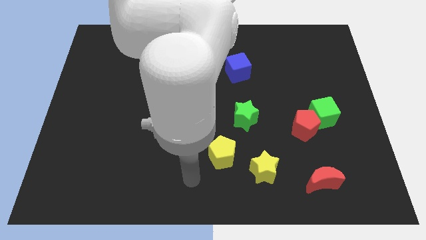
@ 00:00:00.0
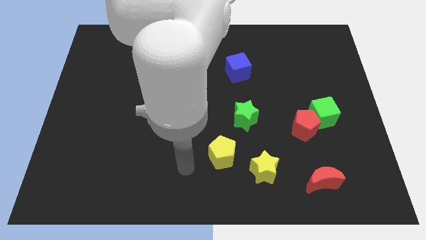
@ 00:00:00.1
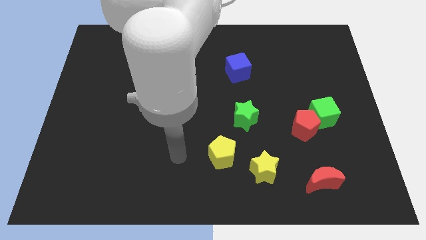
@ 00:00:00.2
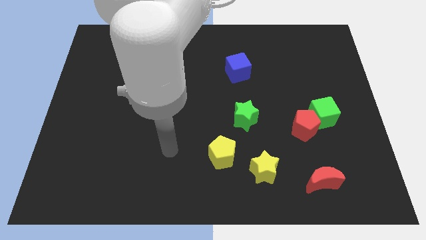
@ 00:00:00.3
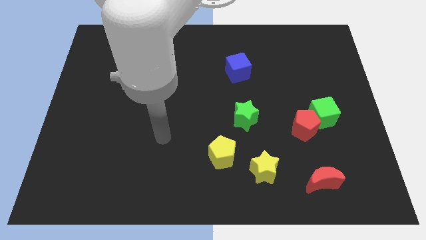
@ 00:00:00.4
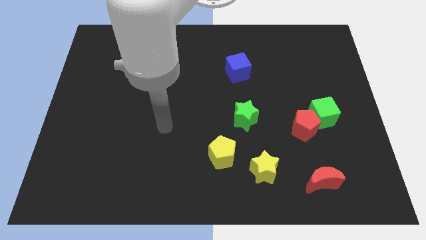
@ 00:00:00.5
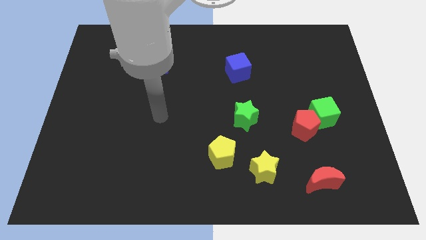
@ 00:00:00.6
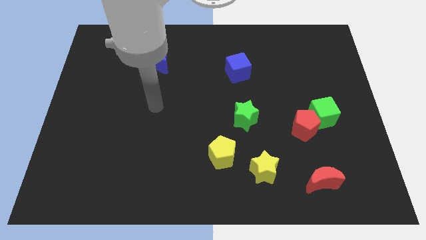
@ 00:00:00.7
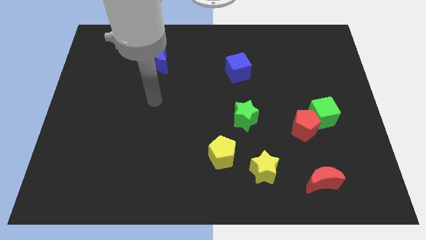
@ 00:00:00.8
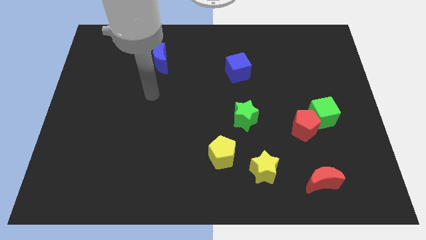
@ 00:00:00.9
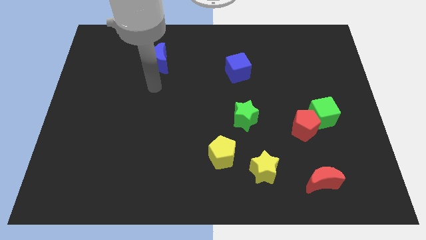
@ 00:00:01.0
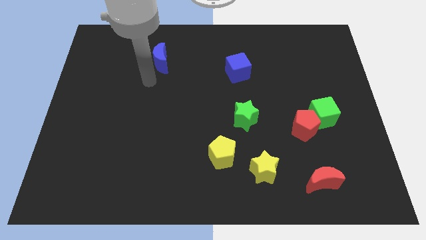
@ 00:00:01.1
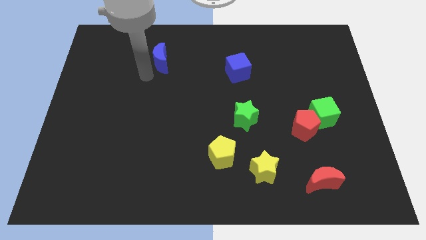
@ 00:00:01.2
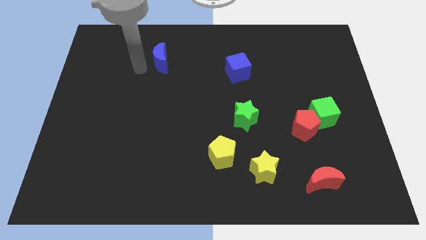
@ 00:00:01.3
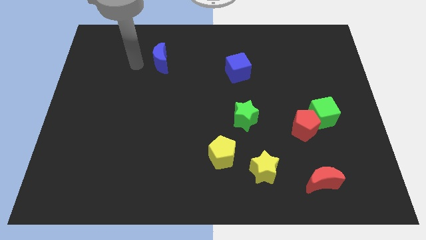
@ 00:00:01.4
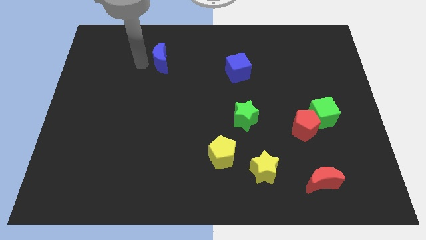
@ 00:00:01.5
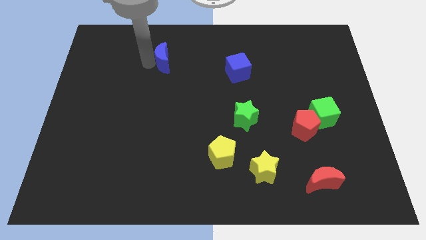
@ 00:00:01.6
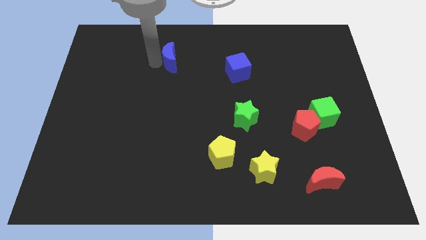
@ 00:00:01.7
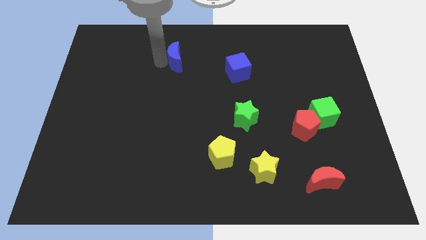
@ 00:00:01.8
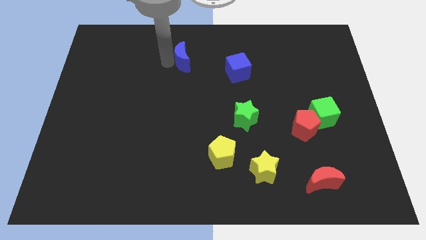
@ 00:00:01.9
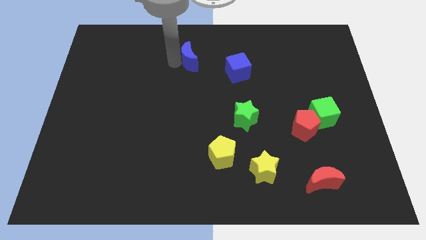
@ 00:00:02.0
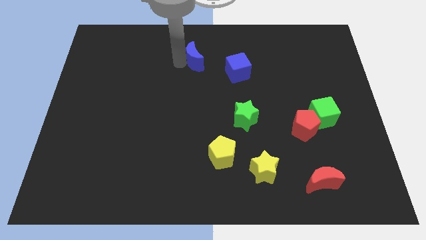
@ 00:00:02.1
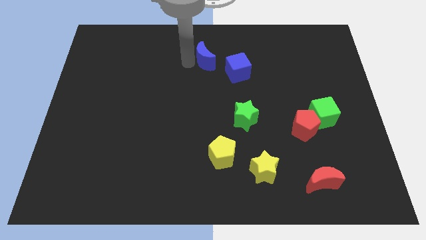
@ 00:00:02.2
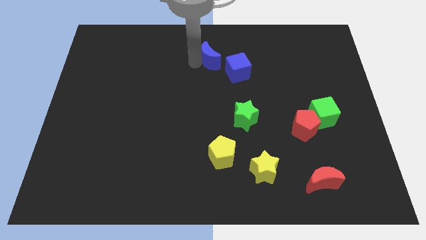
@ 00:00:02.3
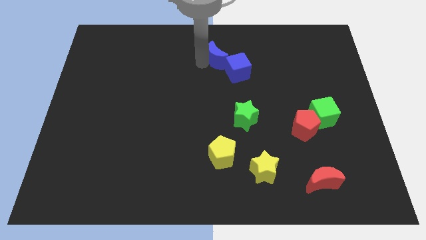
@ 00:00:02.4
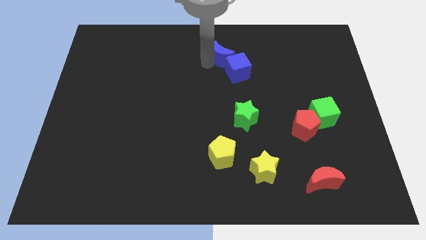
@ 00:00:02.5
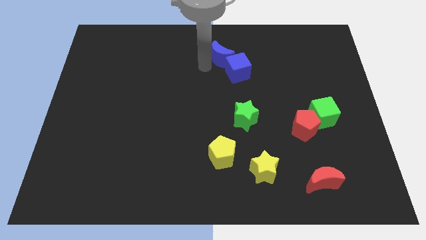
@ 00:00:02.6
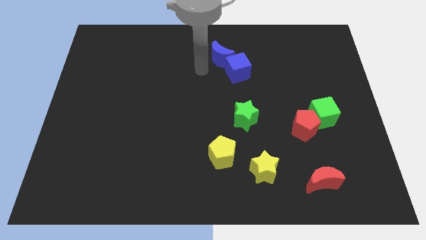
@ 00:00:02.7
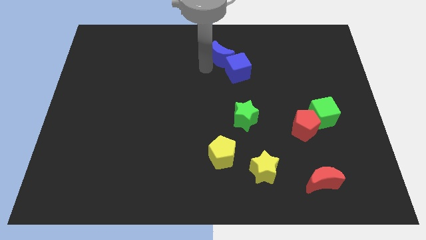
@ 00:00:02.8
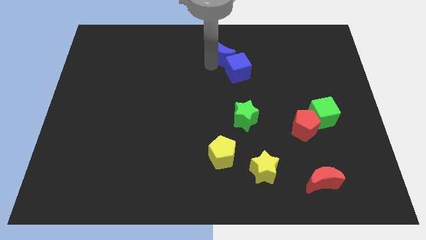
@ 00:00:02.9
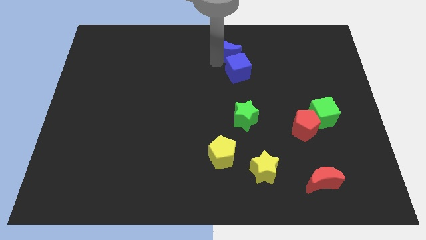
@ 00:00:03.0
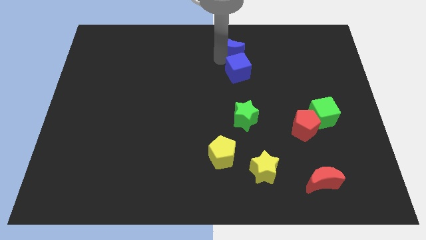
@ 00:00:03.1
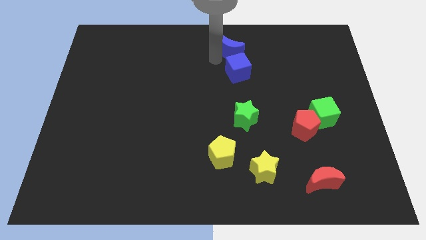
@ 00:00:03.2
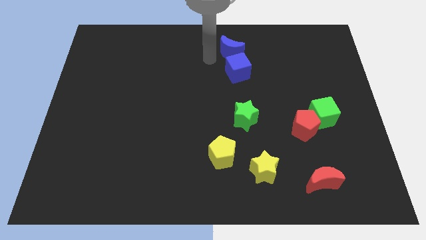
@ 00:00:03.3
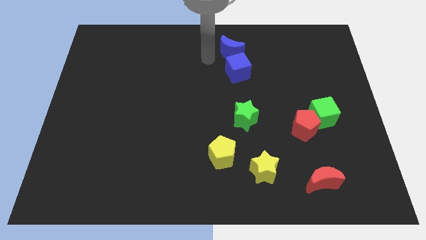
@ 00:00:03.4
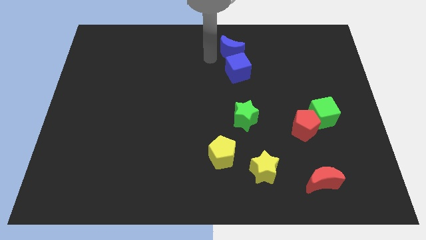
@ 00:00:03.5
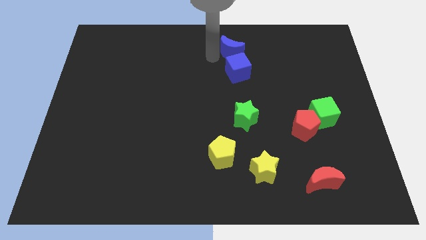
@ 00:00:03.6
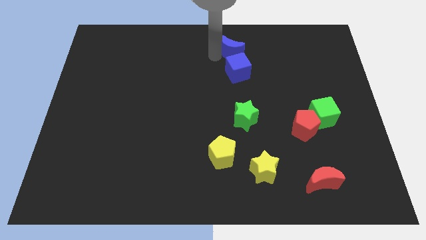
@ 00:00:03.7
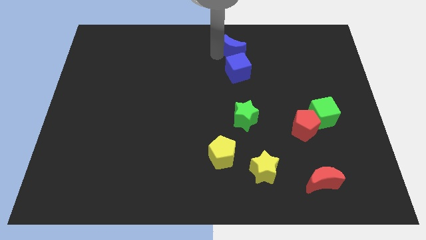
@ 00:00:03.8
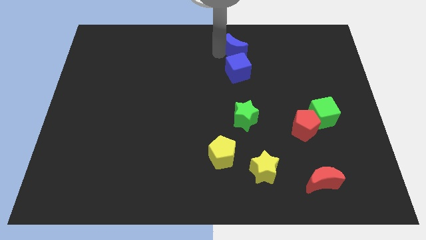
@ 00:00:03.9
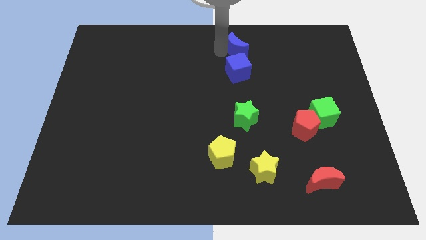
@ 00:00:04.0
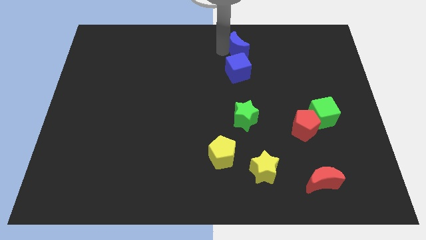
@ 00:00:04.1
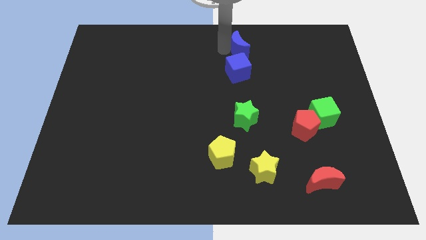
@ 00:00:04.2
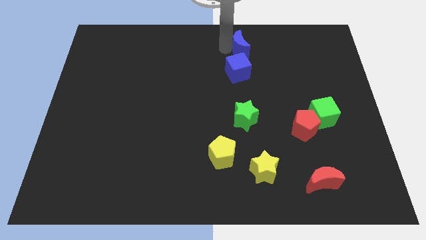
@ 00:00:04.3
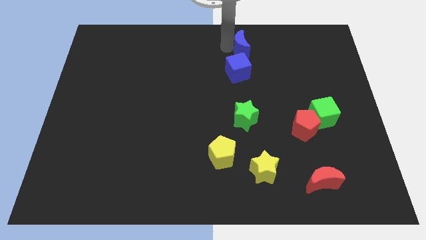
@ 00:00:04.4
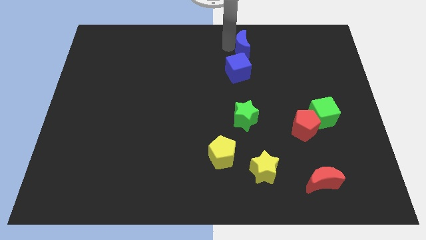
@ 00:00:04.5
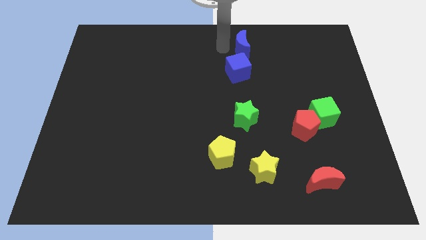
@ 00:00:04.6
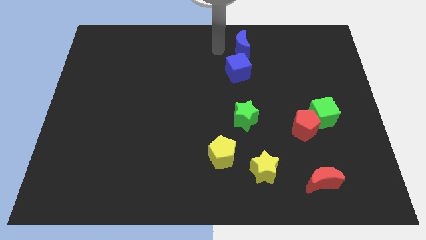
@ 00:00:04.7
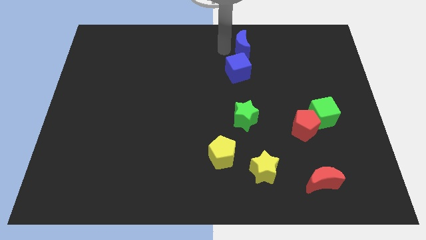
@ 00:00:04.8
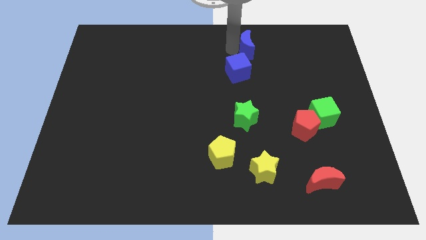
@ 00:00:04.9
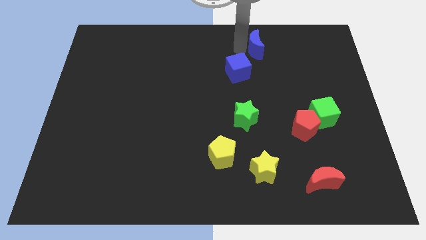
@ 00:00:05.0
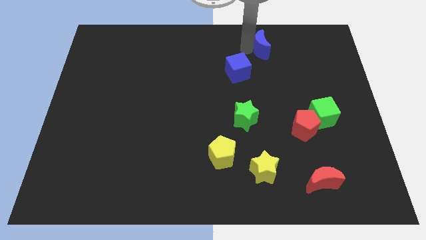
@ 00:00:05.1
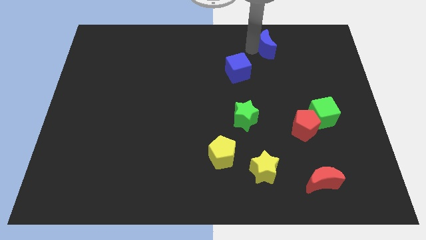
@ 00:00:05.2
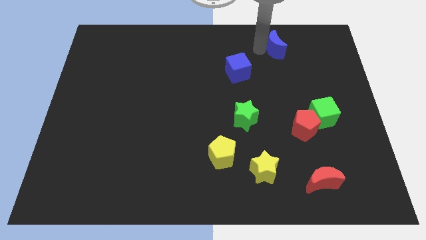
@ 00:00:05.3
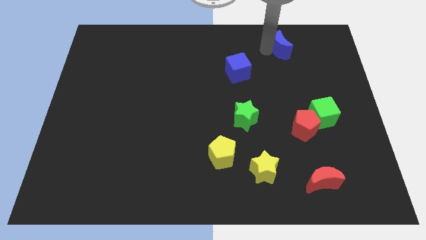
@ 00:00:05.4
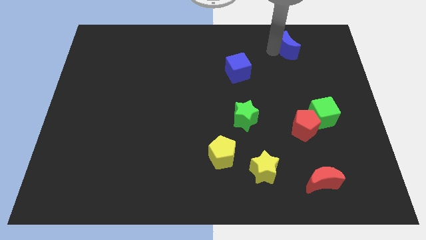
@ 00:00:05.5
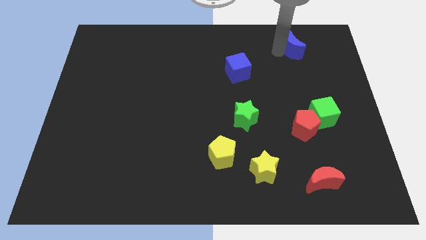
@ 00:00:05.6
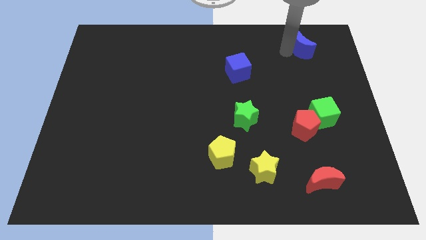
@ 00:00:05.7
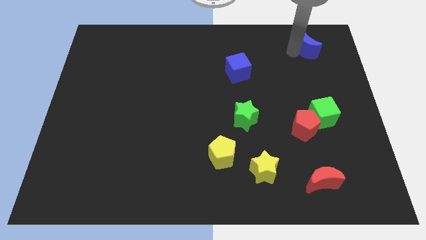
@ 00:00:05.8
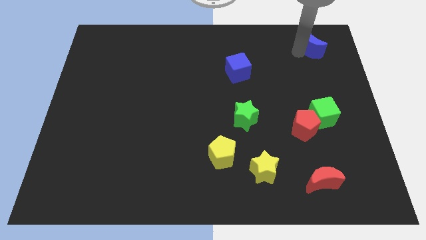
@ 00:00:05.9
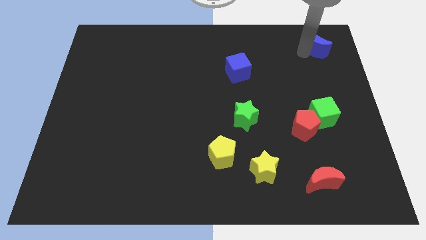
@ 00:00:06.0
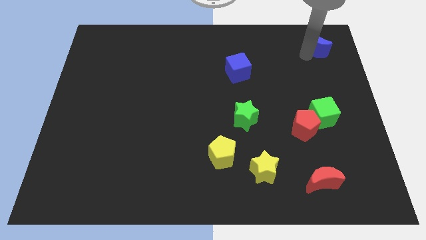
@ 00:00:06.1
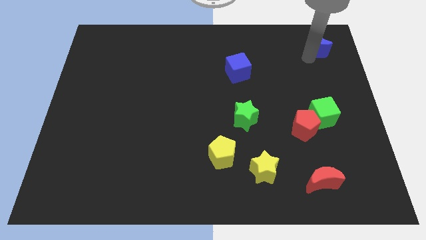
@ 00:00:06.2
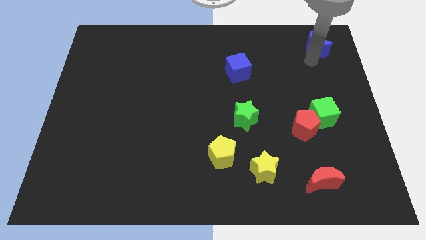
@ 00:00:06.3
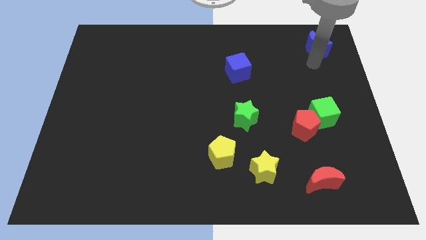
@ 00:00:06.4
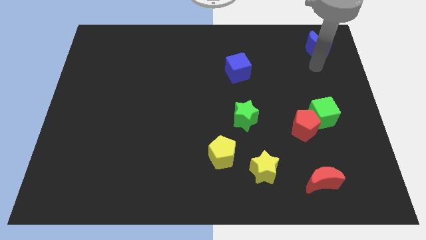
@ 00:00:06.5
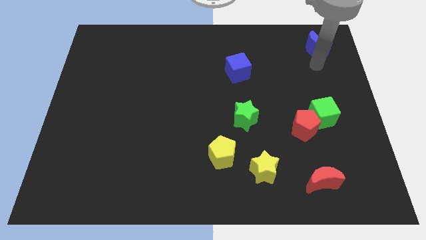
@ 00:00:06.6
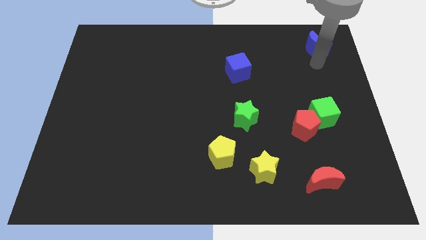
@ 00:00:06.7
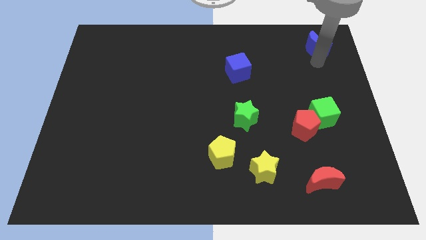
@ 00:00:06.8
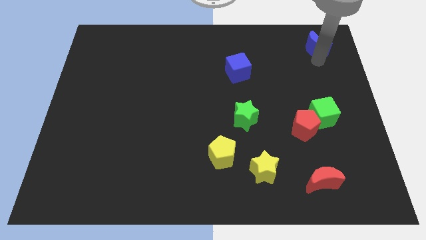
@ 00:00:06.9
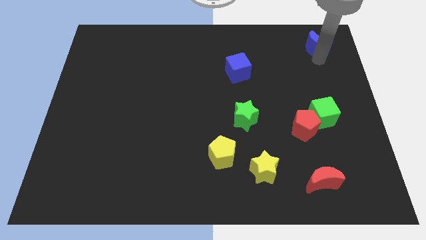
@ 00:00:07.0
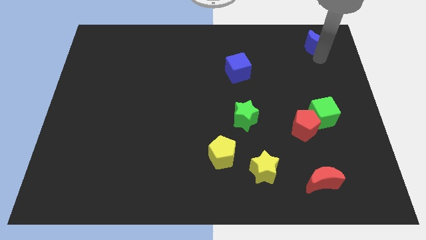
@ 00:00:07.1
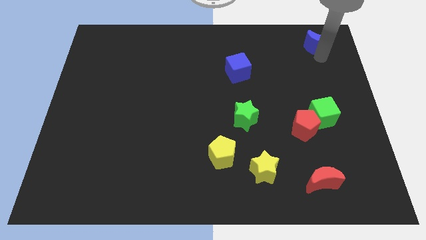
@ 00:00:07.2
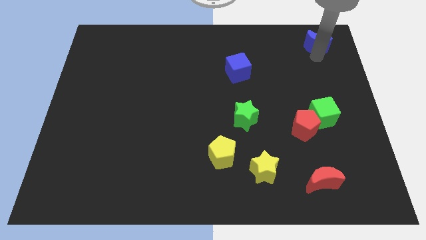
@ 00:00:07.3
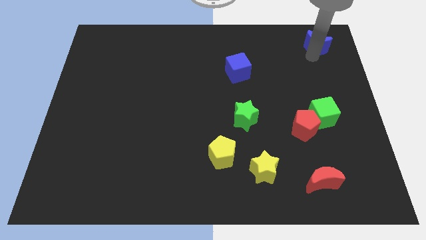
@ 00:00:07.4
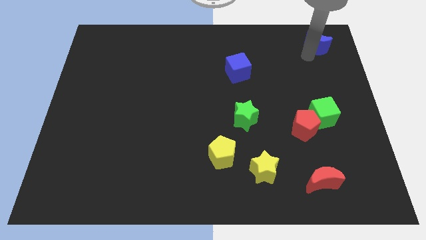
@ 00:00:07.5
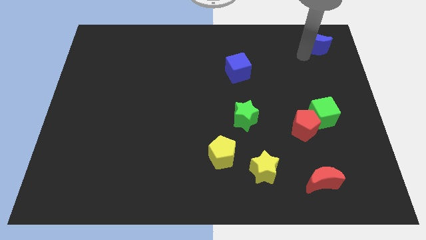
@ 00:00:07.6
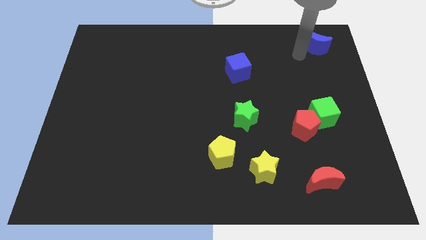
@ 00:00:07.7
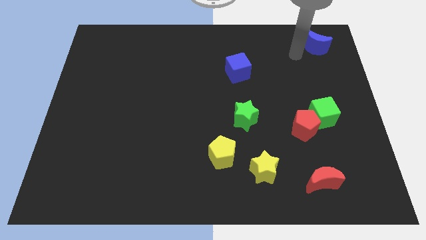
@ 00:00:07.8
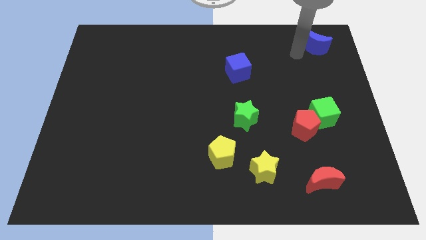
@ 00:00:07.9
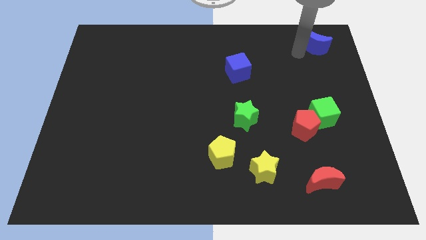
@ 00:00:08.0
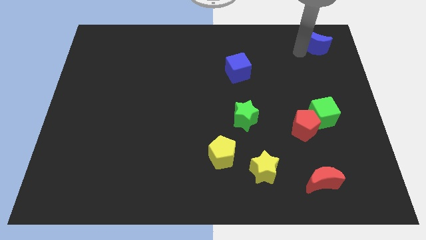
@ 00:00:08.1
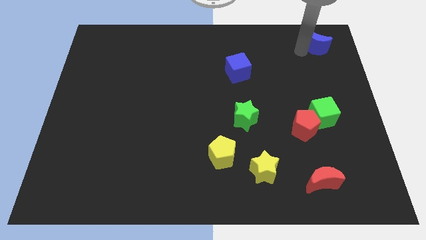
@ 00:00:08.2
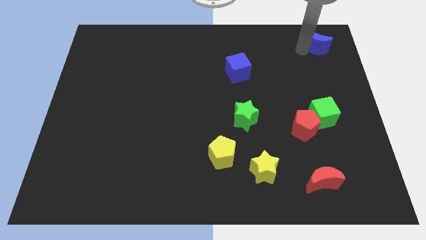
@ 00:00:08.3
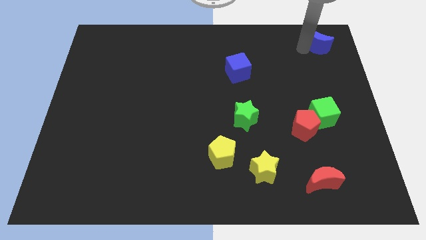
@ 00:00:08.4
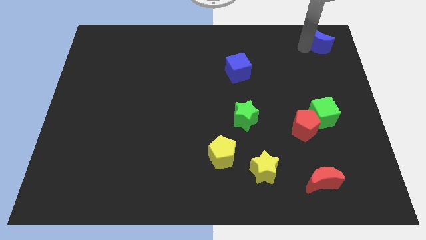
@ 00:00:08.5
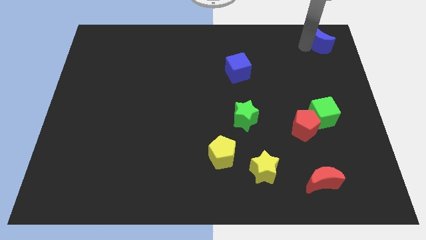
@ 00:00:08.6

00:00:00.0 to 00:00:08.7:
put the blue moon to the top right of the board
